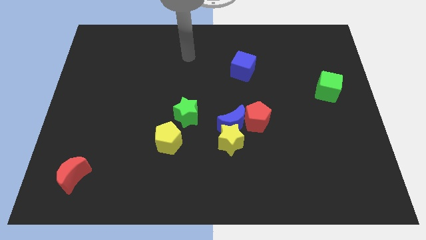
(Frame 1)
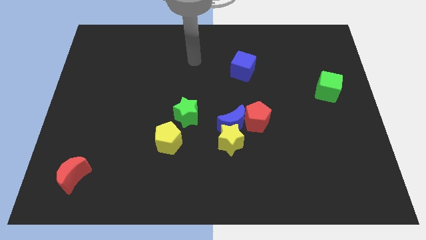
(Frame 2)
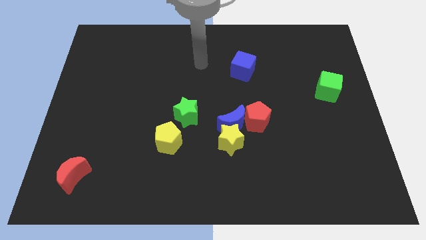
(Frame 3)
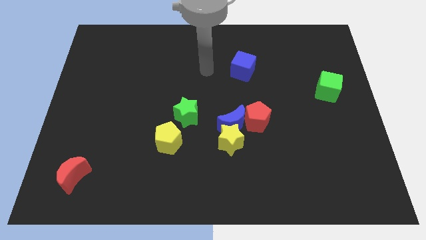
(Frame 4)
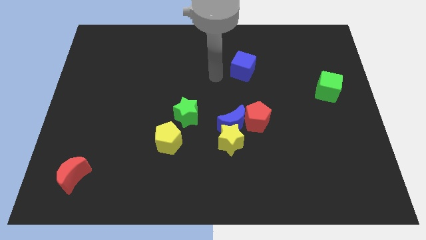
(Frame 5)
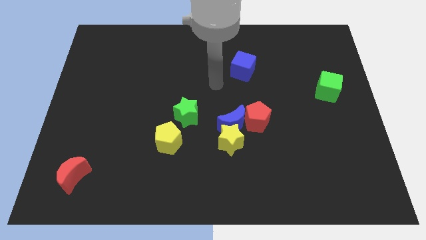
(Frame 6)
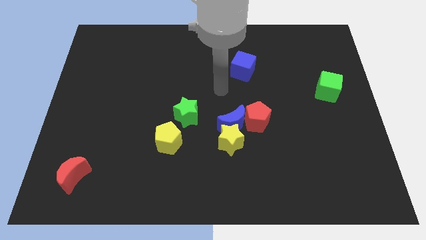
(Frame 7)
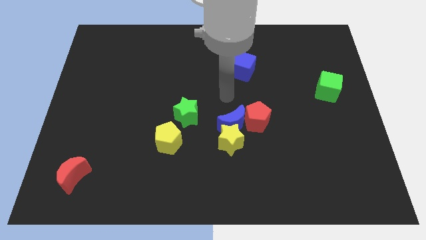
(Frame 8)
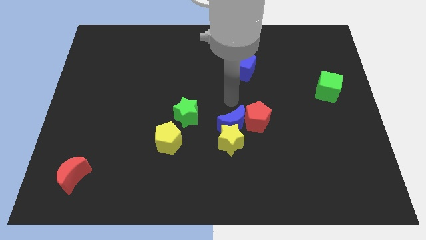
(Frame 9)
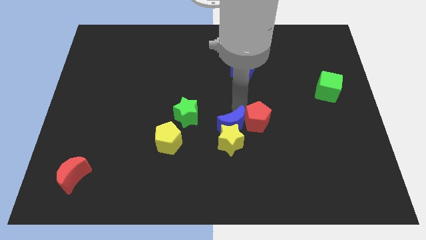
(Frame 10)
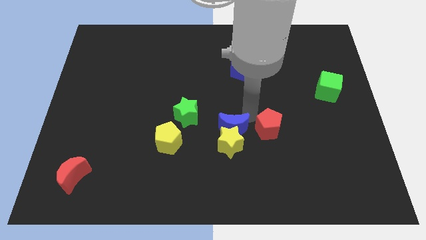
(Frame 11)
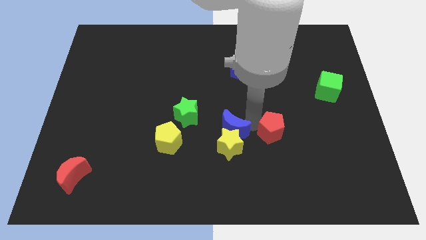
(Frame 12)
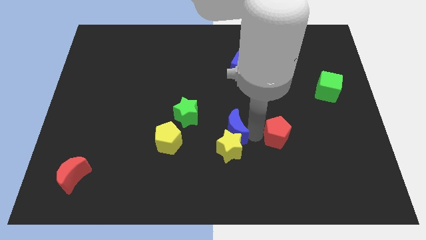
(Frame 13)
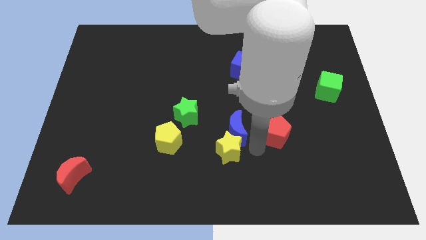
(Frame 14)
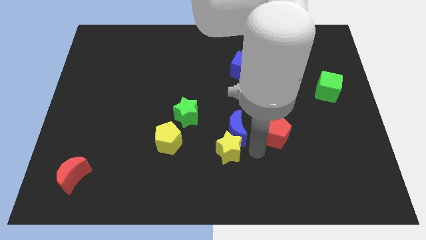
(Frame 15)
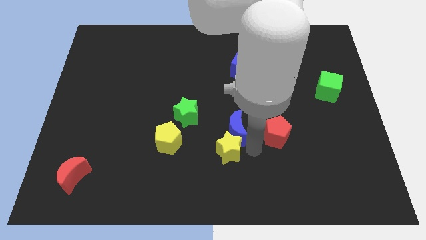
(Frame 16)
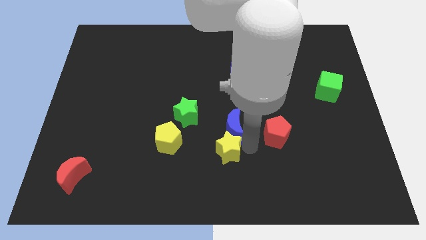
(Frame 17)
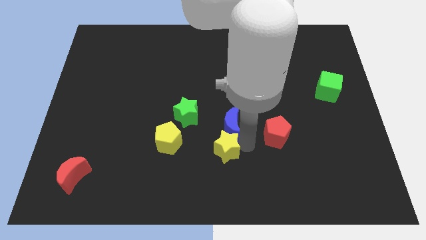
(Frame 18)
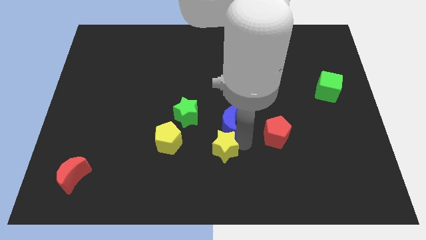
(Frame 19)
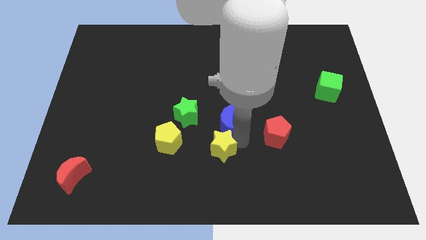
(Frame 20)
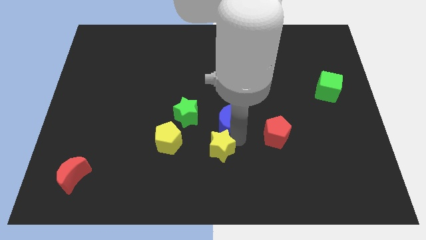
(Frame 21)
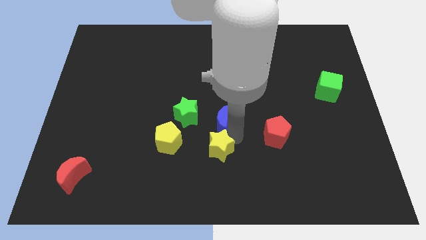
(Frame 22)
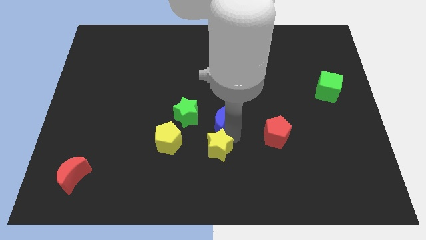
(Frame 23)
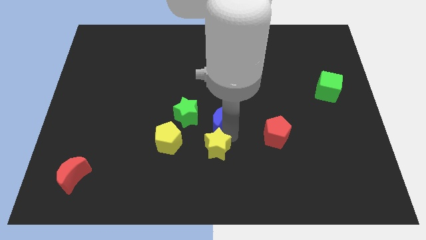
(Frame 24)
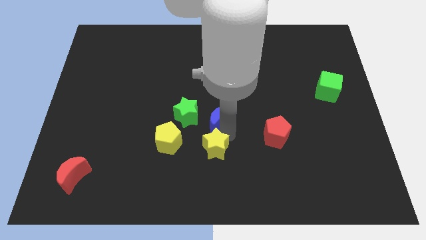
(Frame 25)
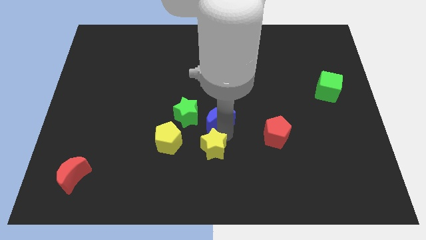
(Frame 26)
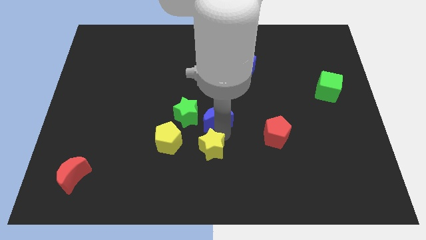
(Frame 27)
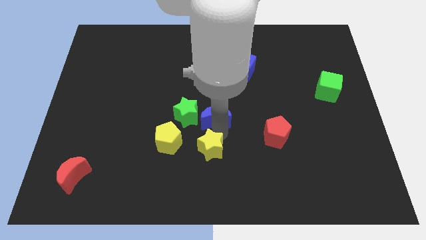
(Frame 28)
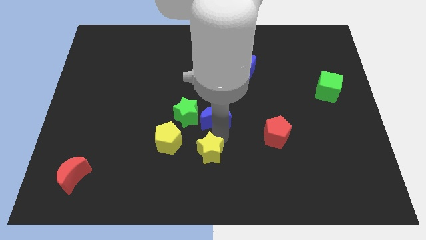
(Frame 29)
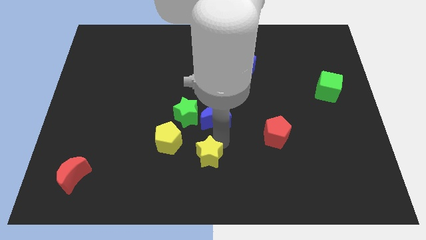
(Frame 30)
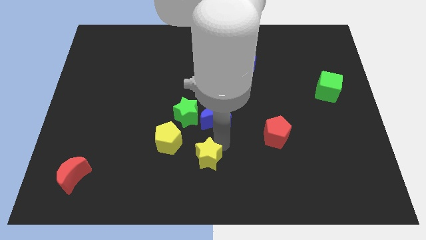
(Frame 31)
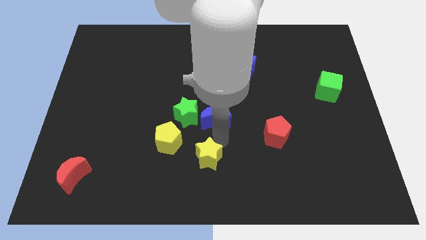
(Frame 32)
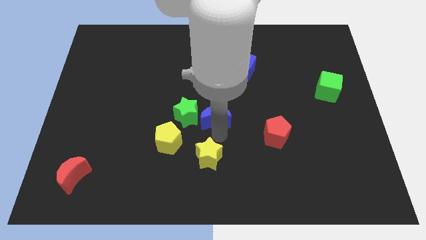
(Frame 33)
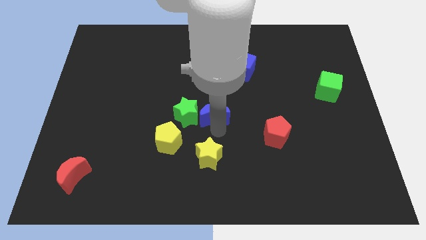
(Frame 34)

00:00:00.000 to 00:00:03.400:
pull the blue moon apart from the yellow star and red pentagon

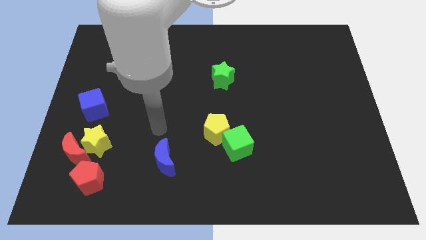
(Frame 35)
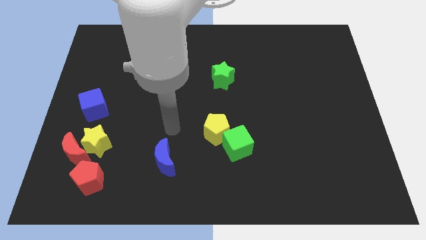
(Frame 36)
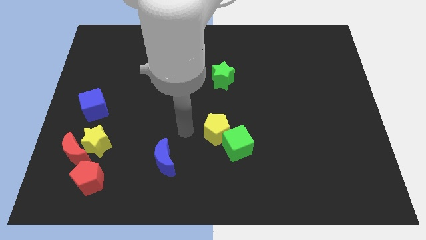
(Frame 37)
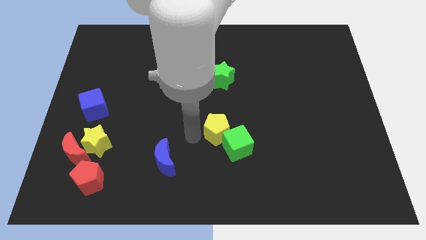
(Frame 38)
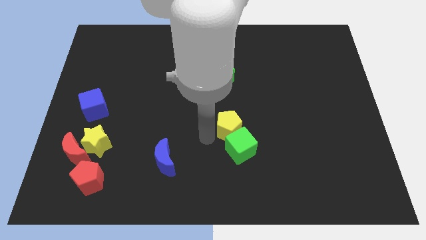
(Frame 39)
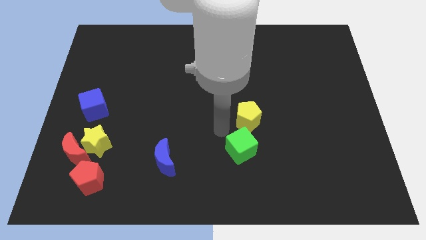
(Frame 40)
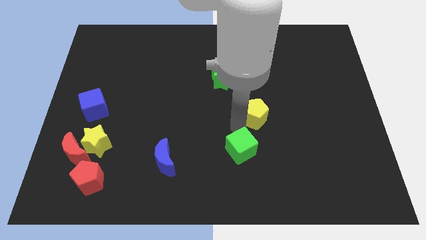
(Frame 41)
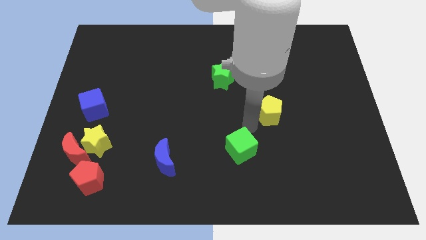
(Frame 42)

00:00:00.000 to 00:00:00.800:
move the green cube away from the yellow pentagon

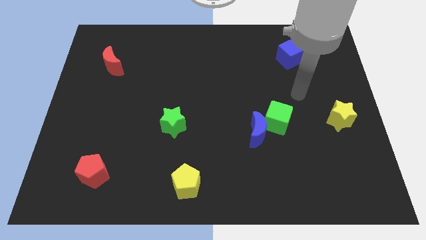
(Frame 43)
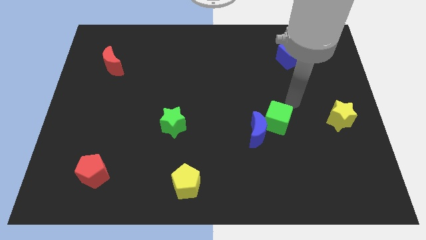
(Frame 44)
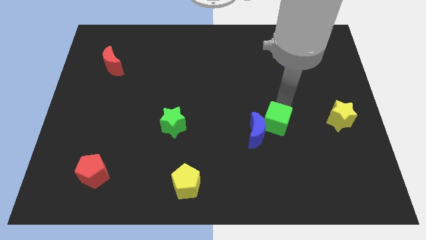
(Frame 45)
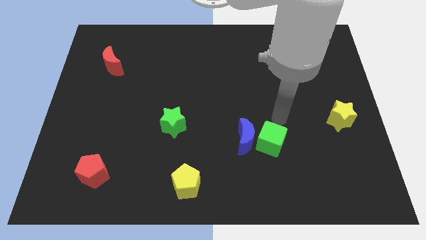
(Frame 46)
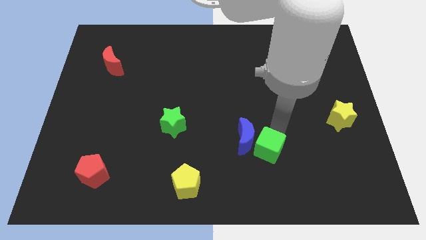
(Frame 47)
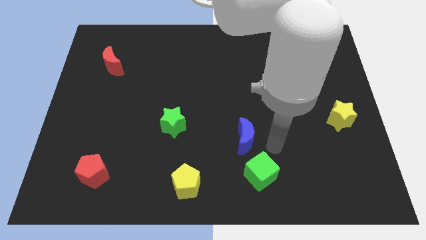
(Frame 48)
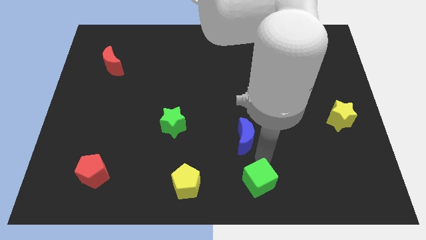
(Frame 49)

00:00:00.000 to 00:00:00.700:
move the blue moon away from the green cube

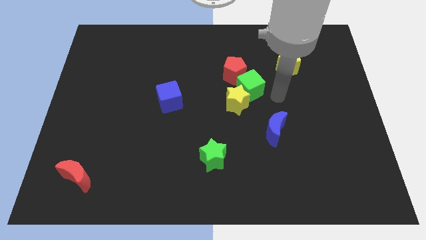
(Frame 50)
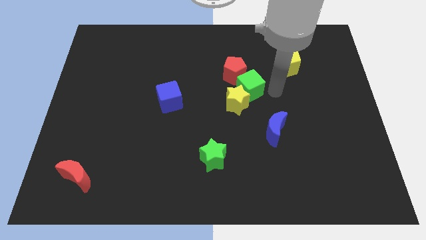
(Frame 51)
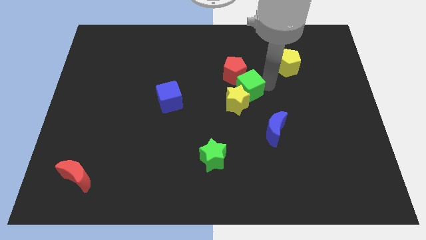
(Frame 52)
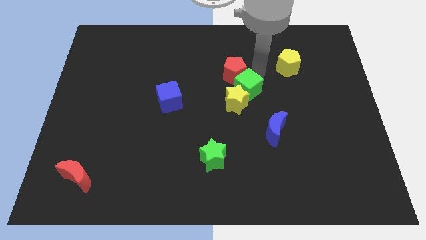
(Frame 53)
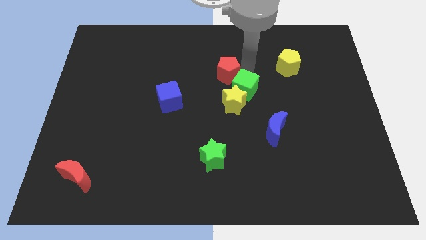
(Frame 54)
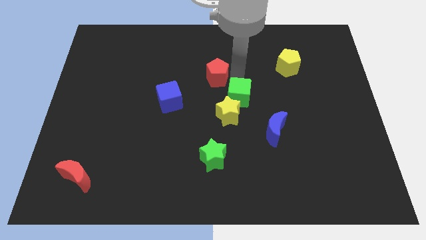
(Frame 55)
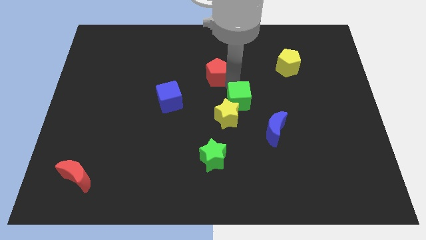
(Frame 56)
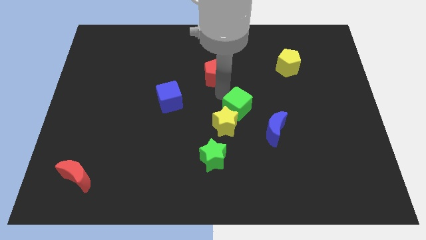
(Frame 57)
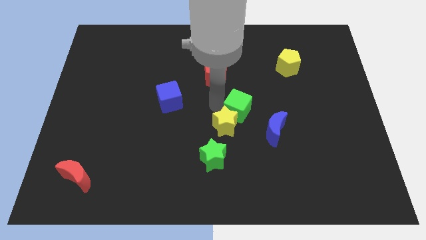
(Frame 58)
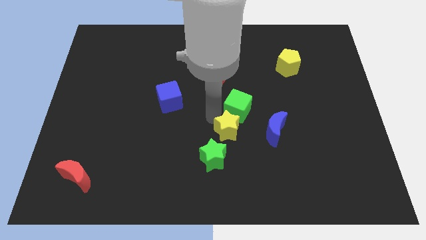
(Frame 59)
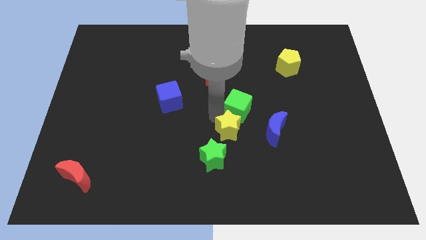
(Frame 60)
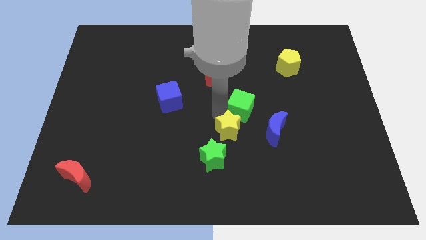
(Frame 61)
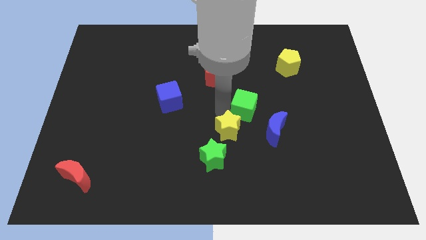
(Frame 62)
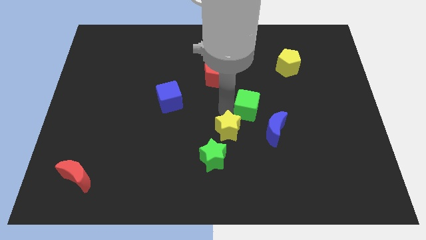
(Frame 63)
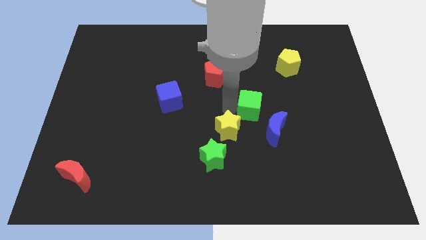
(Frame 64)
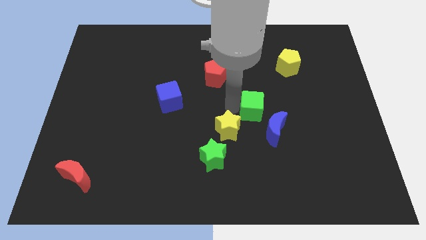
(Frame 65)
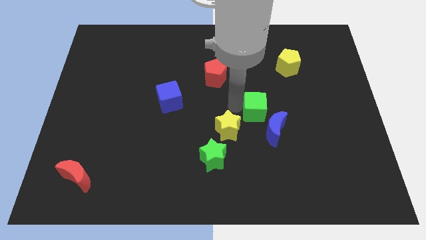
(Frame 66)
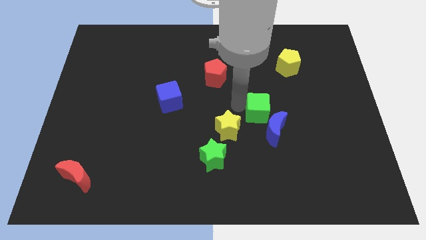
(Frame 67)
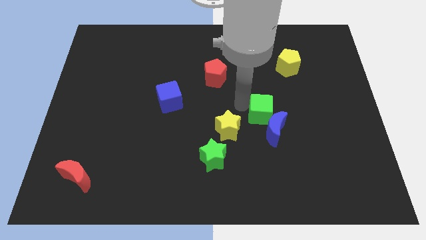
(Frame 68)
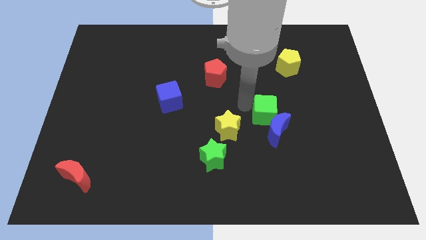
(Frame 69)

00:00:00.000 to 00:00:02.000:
separate the green cube from the yellow star and red pentagon

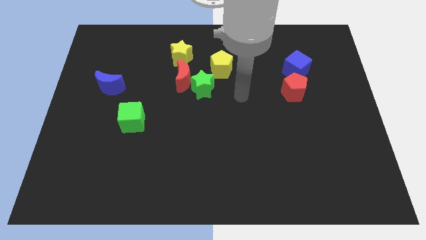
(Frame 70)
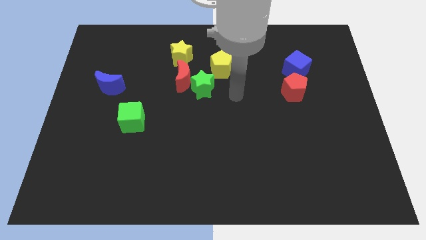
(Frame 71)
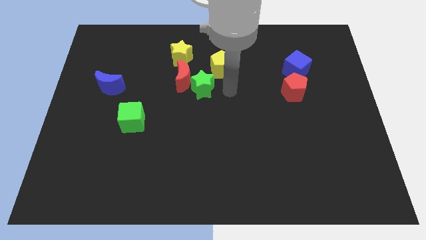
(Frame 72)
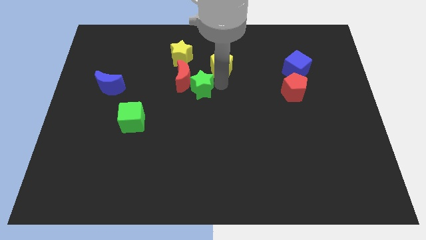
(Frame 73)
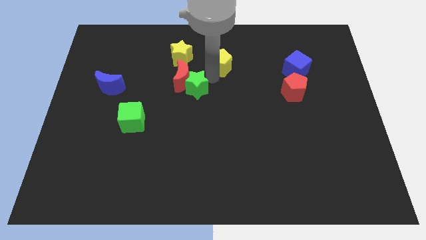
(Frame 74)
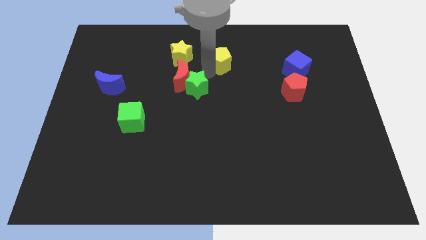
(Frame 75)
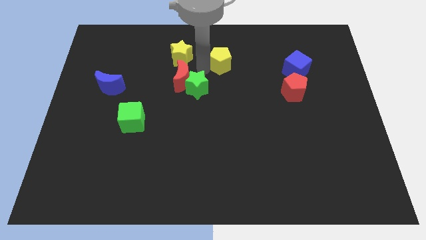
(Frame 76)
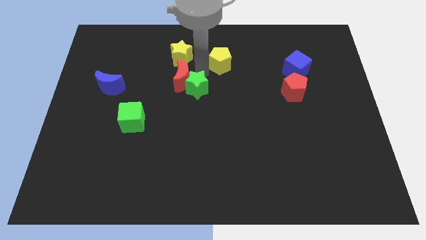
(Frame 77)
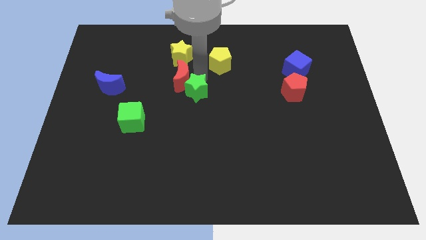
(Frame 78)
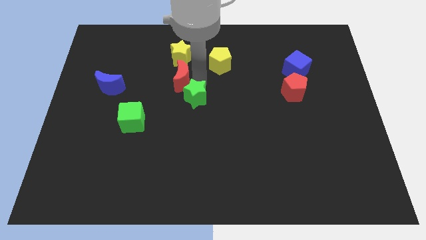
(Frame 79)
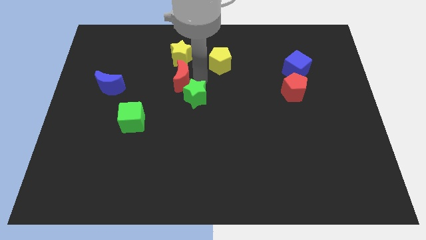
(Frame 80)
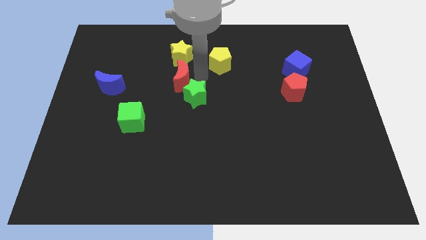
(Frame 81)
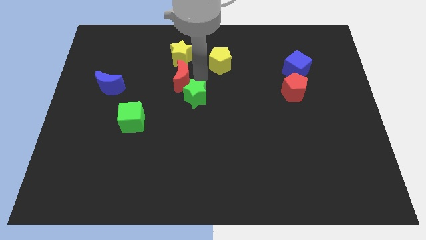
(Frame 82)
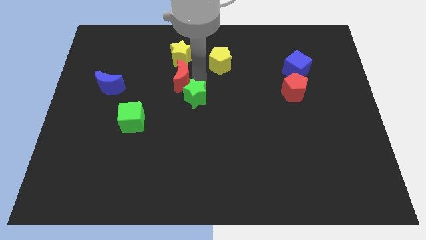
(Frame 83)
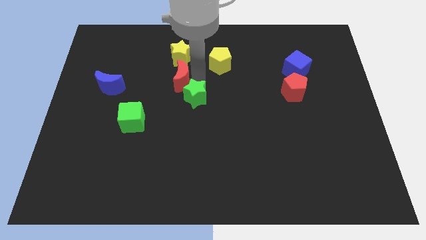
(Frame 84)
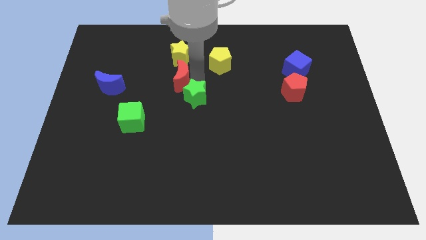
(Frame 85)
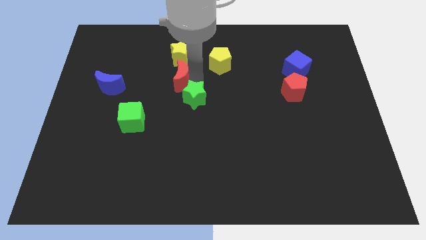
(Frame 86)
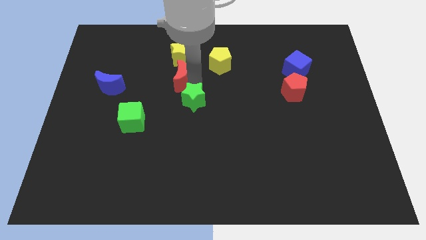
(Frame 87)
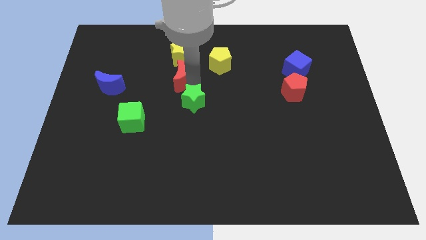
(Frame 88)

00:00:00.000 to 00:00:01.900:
move the green star away from the red moon and yellow pentagon

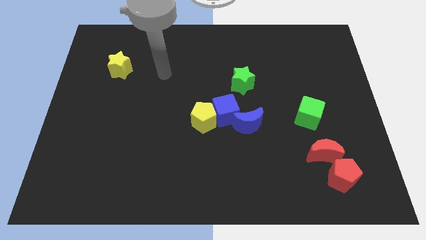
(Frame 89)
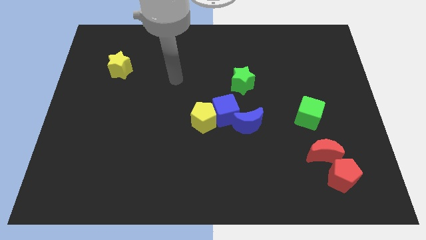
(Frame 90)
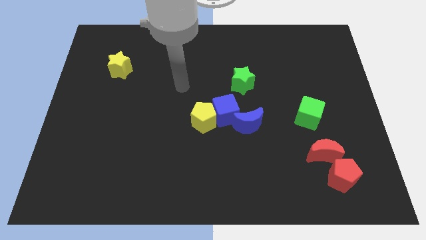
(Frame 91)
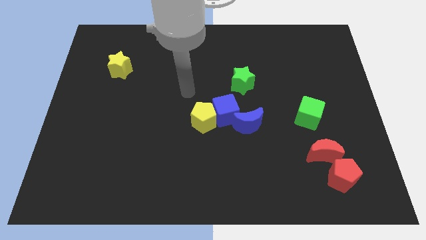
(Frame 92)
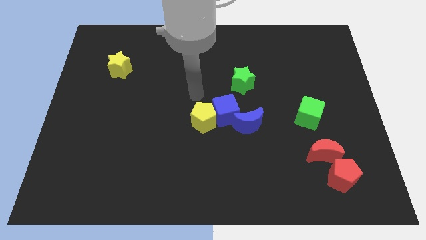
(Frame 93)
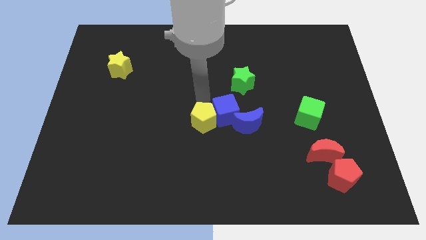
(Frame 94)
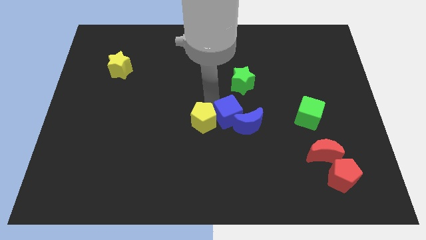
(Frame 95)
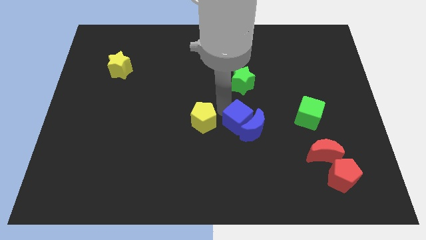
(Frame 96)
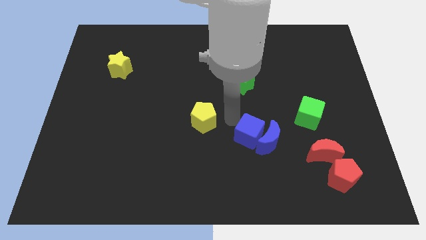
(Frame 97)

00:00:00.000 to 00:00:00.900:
separate the yellow pentagon from the blue cube
